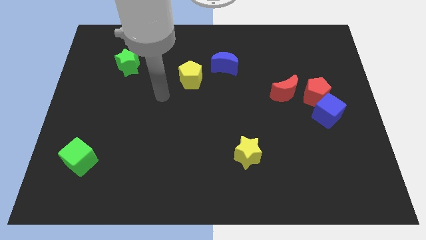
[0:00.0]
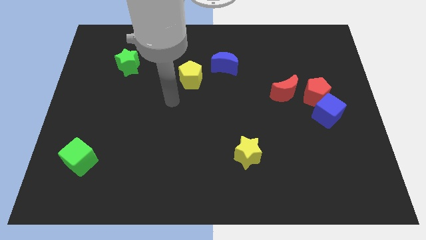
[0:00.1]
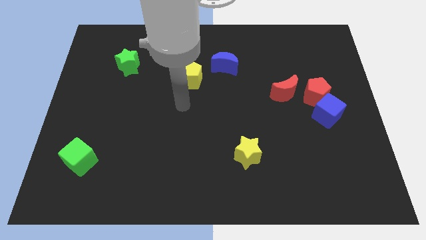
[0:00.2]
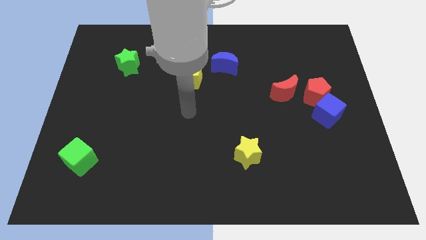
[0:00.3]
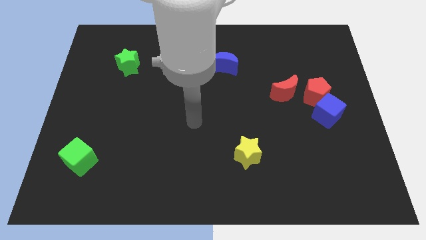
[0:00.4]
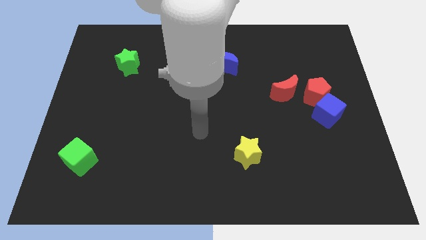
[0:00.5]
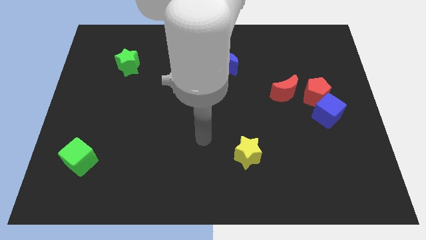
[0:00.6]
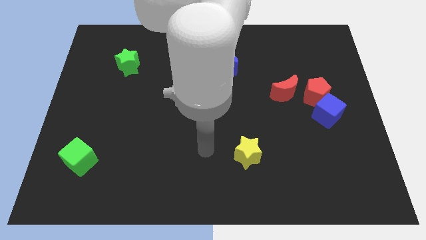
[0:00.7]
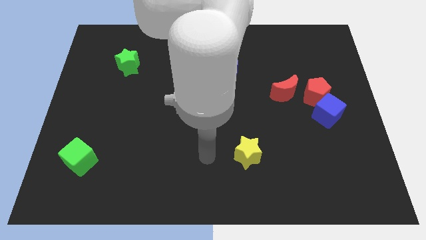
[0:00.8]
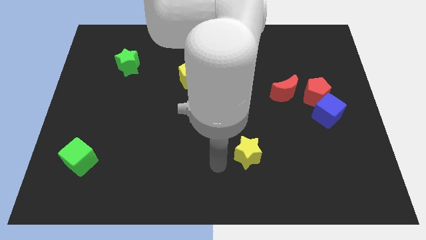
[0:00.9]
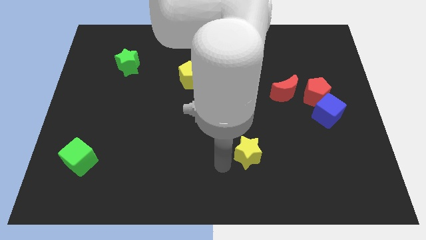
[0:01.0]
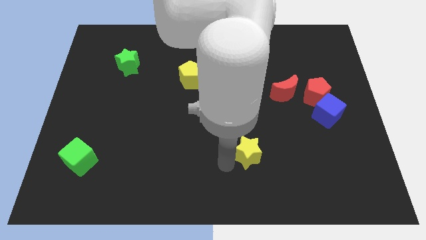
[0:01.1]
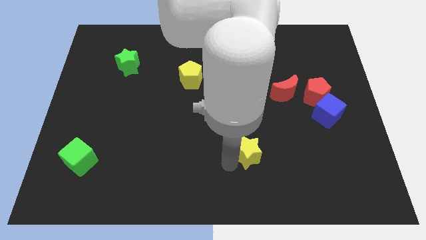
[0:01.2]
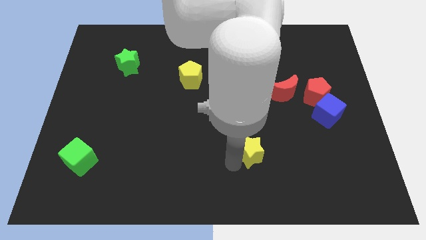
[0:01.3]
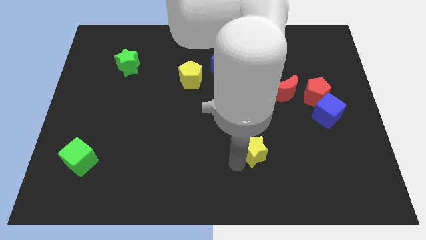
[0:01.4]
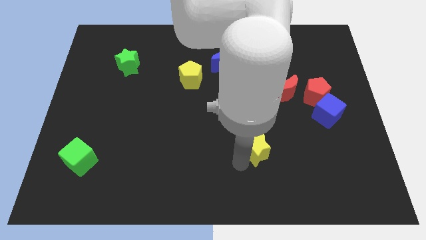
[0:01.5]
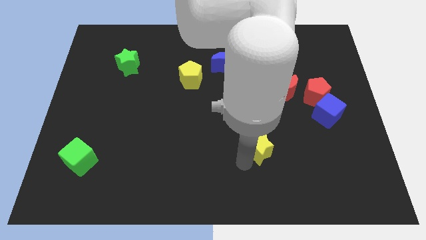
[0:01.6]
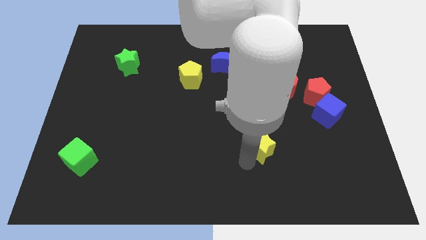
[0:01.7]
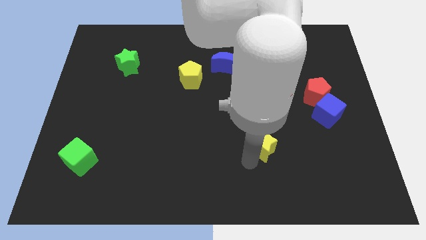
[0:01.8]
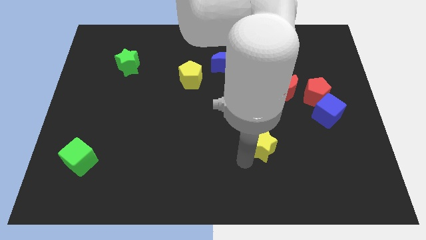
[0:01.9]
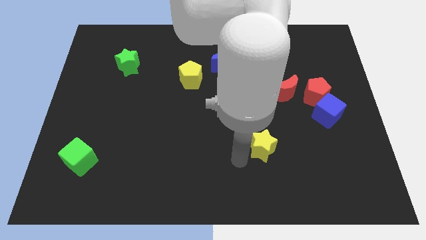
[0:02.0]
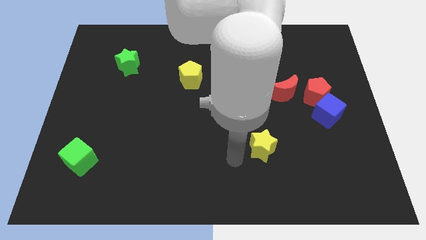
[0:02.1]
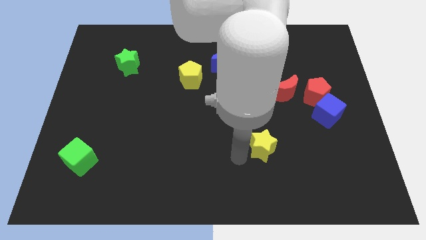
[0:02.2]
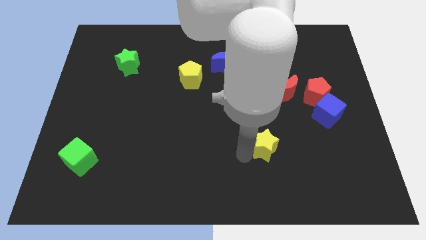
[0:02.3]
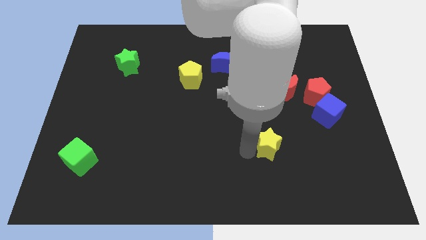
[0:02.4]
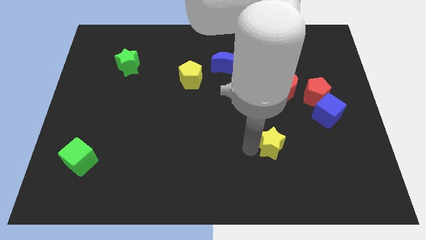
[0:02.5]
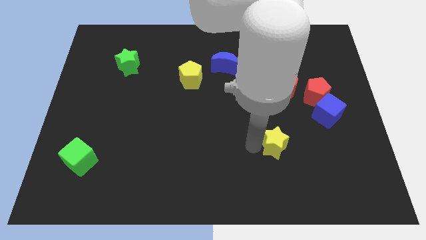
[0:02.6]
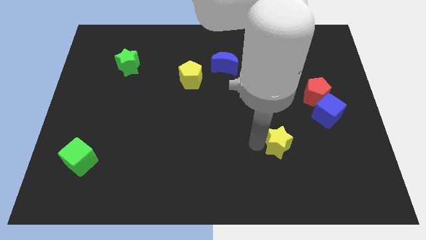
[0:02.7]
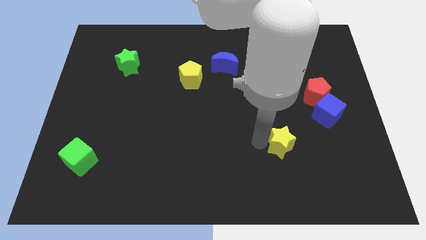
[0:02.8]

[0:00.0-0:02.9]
push the yellow star somewhat to the right

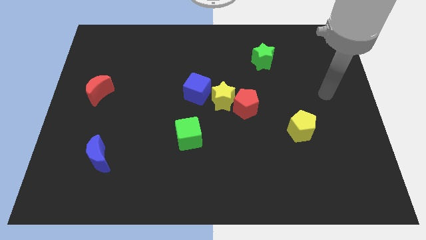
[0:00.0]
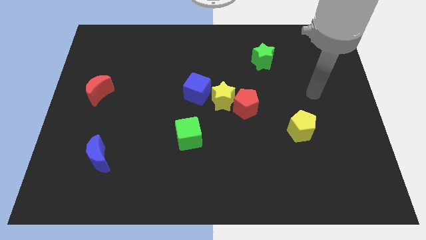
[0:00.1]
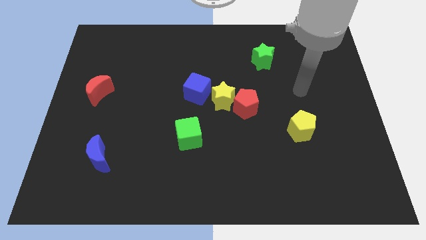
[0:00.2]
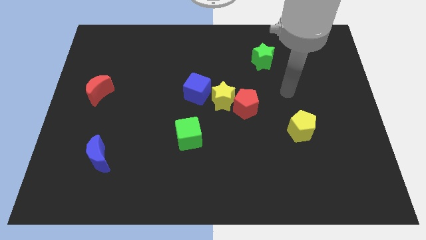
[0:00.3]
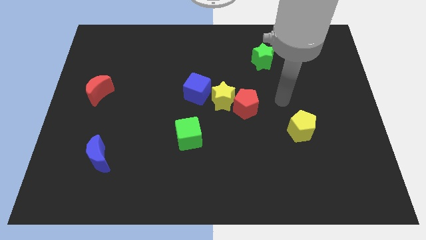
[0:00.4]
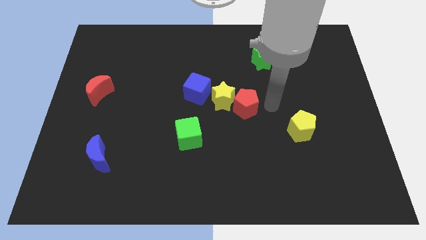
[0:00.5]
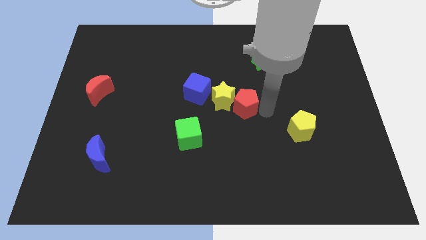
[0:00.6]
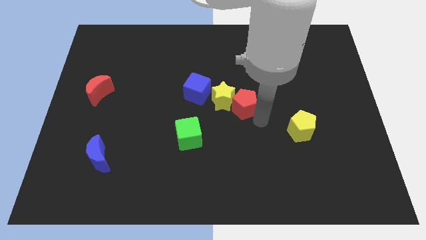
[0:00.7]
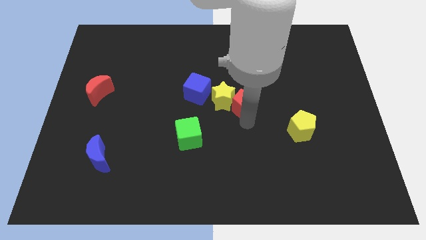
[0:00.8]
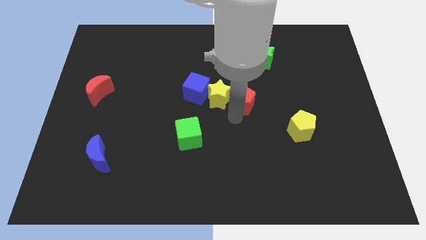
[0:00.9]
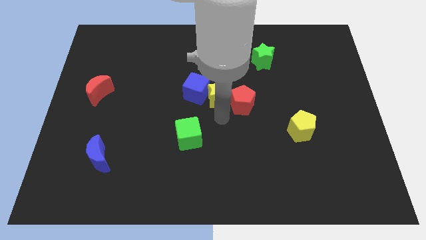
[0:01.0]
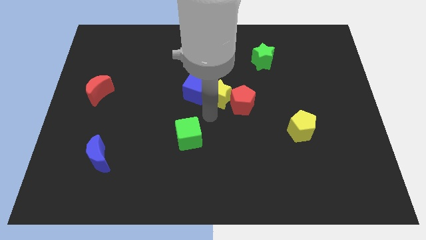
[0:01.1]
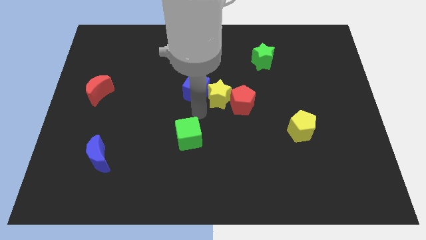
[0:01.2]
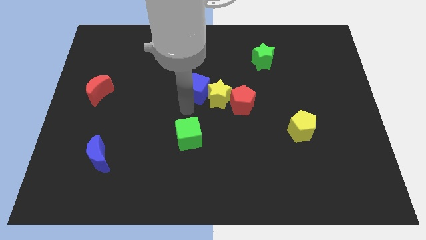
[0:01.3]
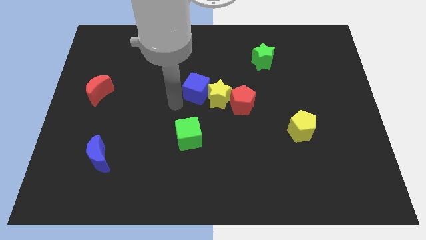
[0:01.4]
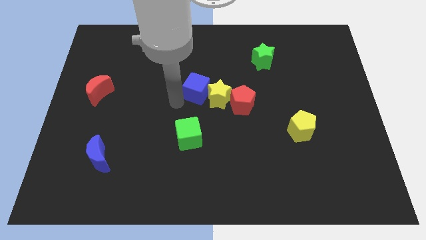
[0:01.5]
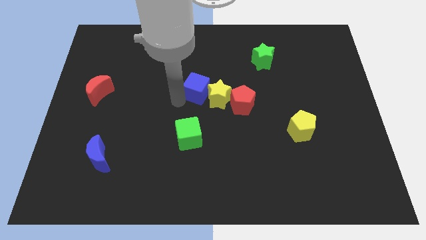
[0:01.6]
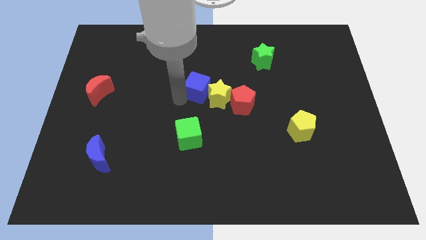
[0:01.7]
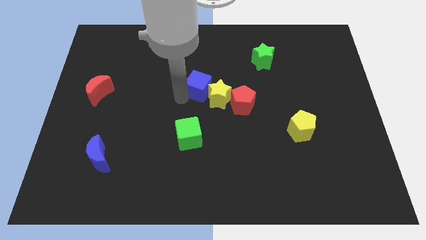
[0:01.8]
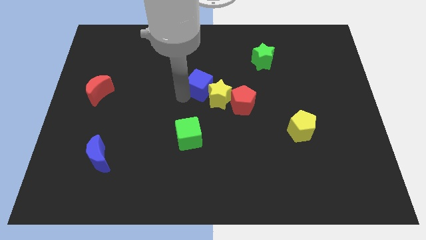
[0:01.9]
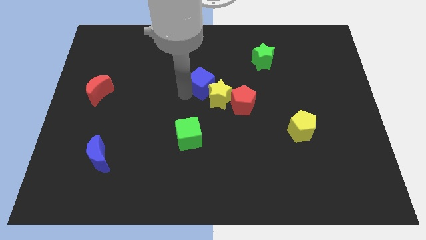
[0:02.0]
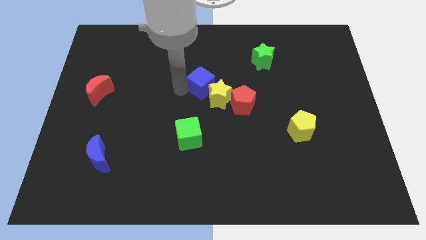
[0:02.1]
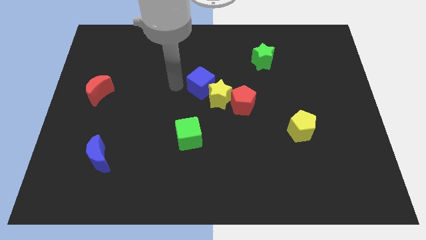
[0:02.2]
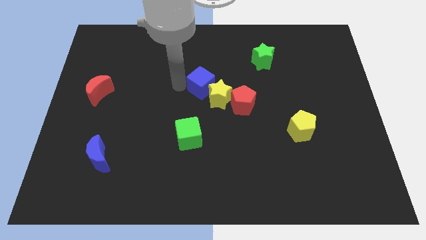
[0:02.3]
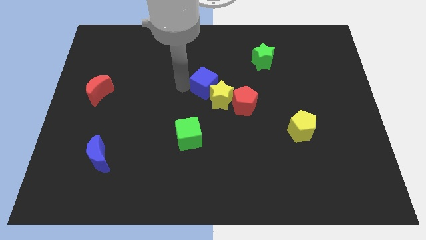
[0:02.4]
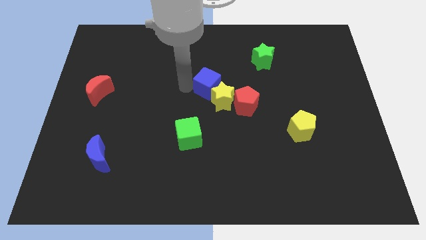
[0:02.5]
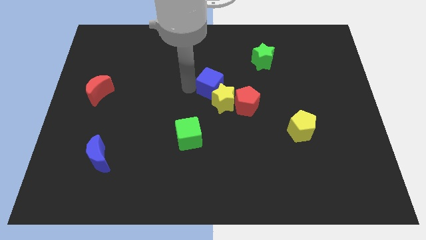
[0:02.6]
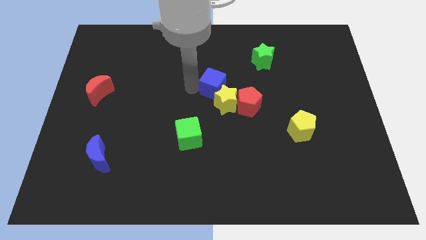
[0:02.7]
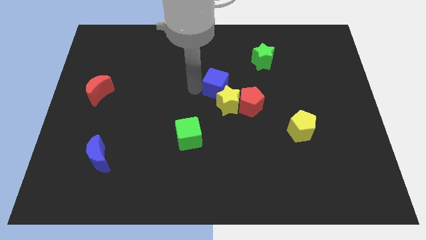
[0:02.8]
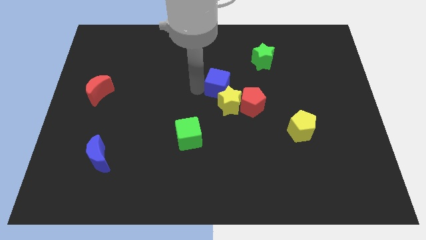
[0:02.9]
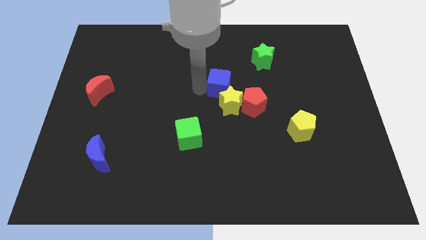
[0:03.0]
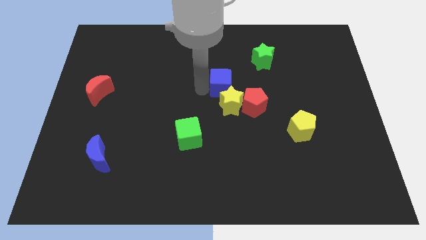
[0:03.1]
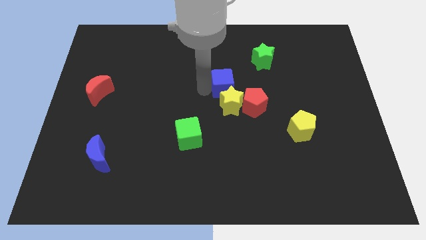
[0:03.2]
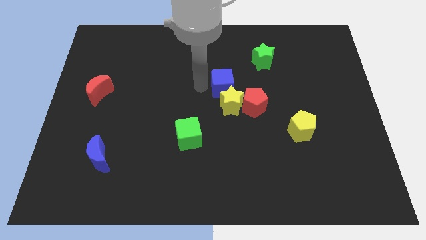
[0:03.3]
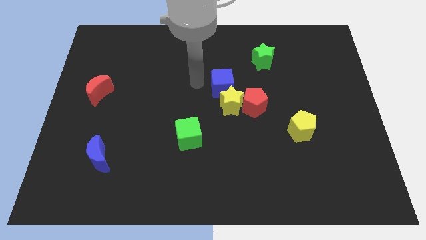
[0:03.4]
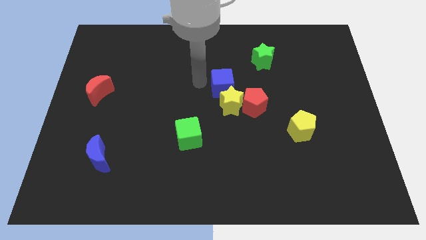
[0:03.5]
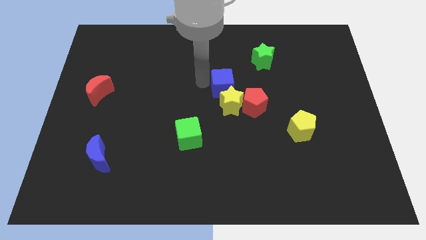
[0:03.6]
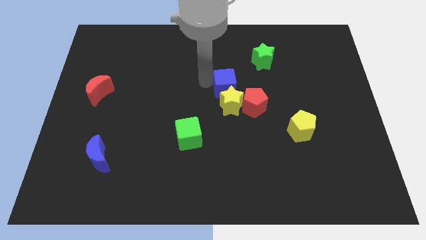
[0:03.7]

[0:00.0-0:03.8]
slide the blue cube somewhat to the right

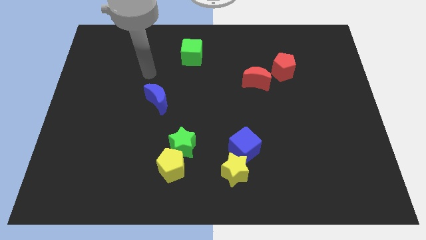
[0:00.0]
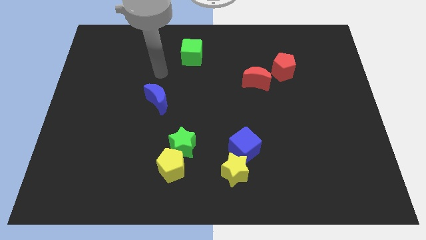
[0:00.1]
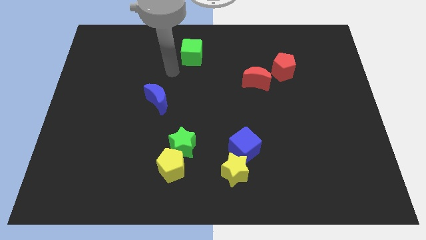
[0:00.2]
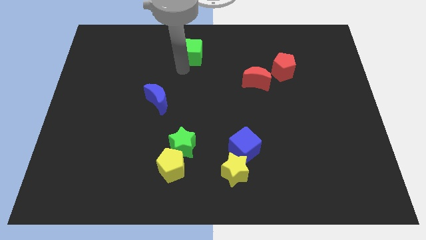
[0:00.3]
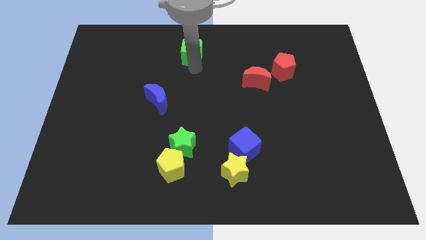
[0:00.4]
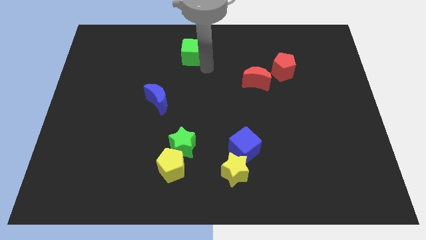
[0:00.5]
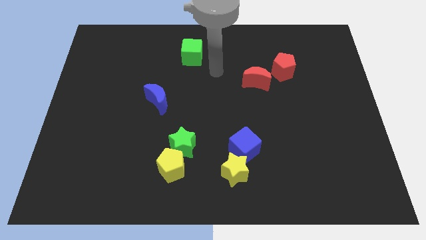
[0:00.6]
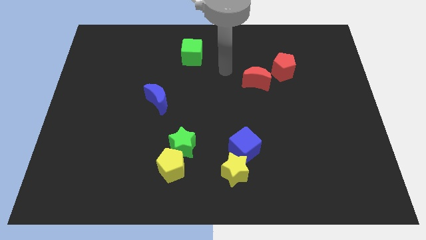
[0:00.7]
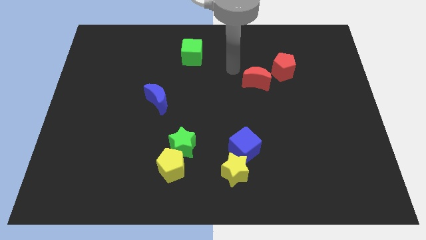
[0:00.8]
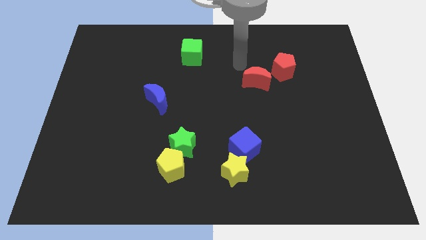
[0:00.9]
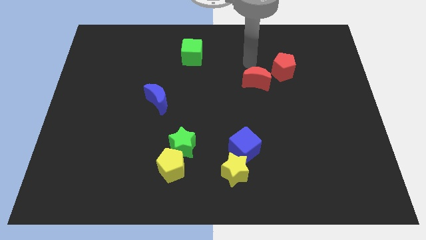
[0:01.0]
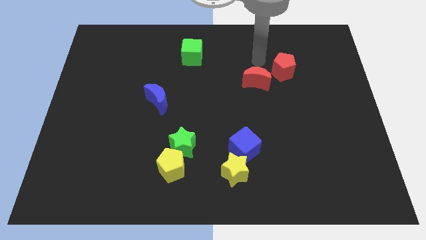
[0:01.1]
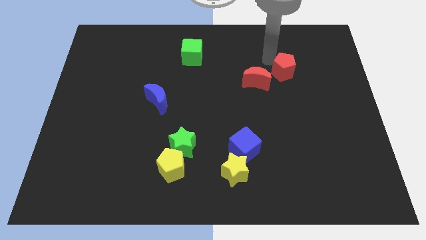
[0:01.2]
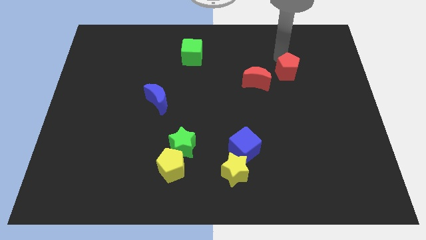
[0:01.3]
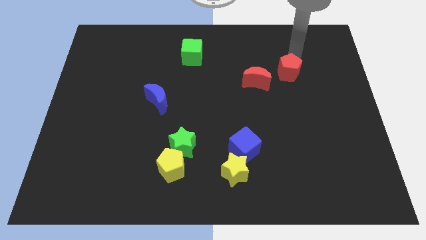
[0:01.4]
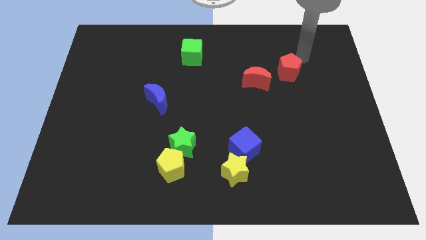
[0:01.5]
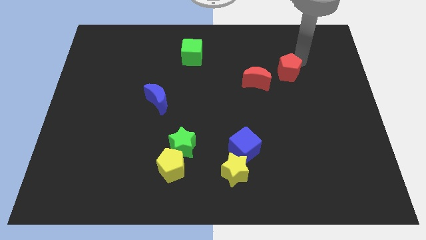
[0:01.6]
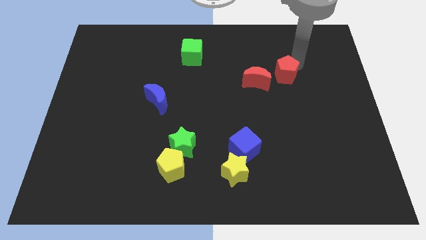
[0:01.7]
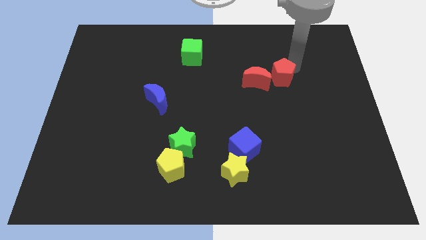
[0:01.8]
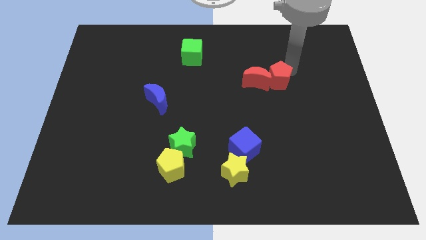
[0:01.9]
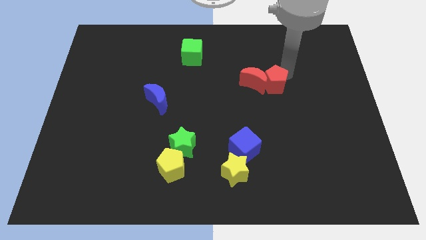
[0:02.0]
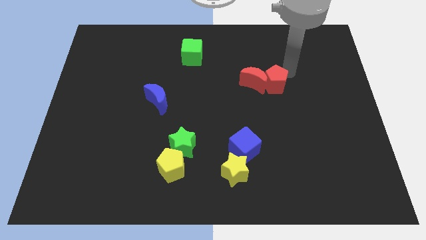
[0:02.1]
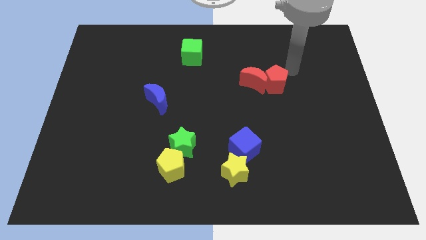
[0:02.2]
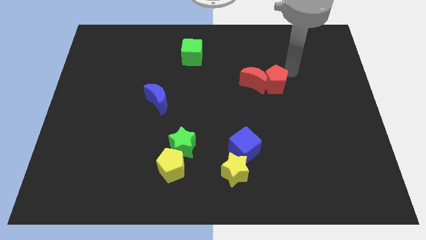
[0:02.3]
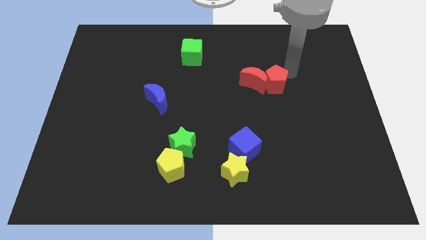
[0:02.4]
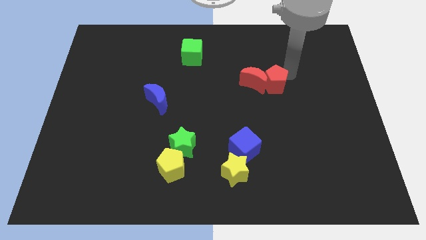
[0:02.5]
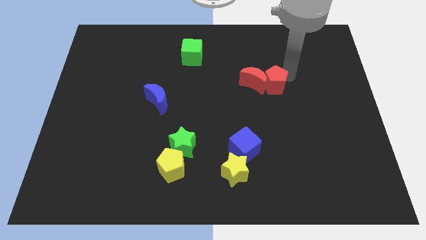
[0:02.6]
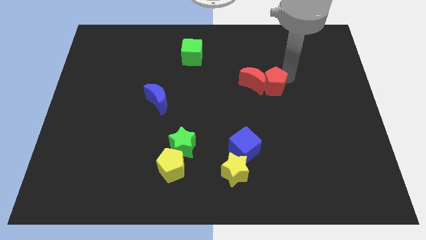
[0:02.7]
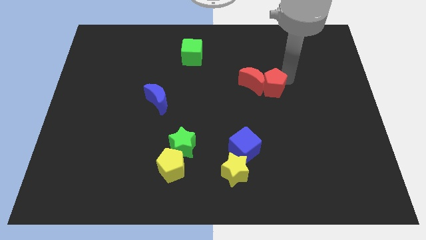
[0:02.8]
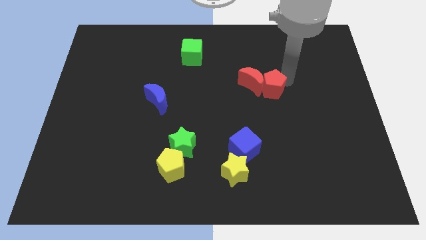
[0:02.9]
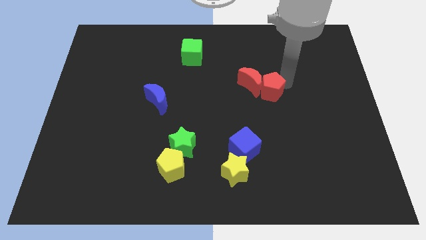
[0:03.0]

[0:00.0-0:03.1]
move the red pentagon down and to the left a little bit
